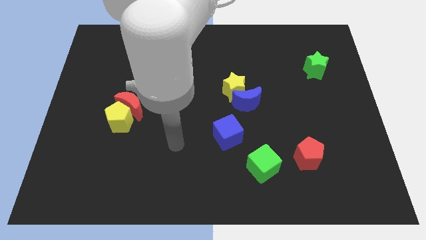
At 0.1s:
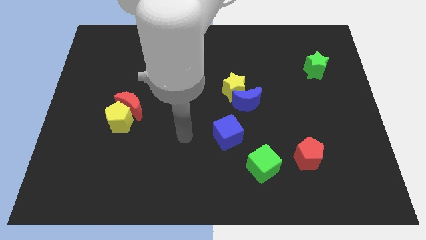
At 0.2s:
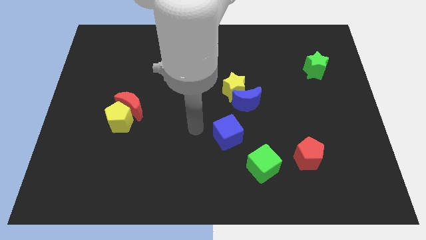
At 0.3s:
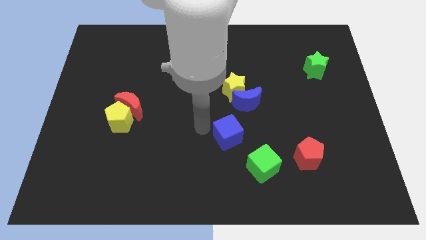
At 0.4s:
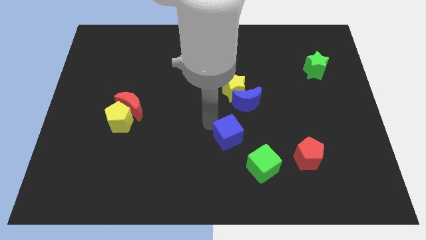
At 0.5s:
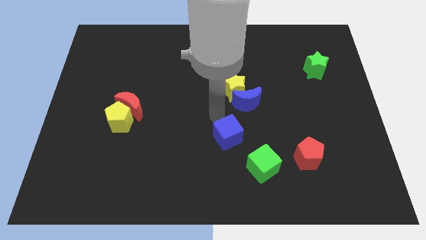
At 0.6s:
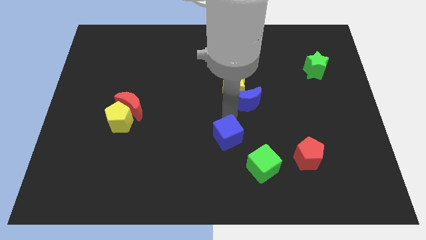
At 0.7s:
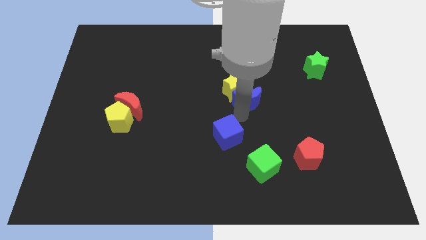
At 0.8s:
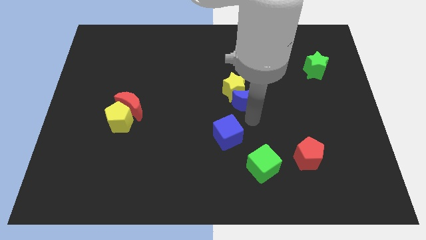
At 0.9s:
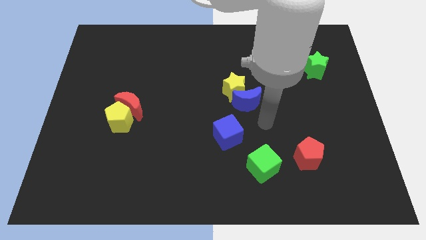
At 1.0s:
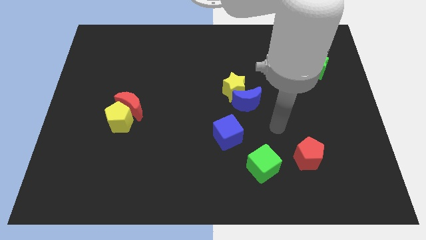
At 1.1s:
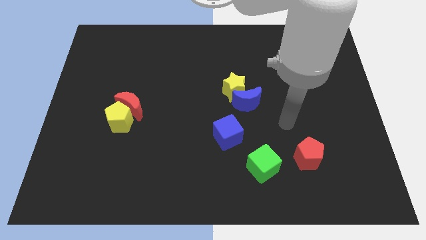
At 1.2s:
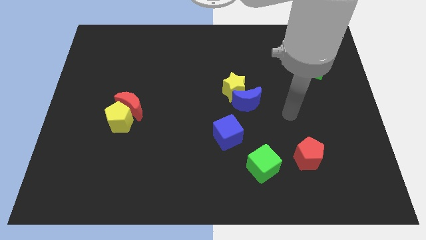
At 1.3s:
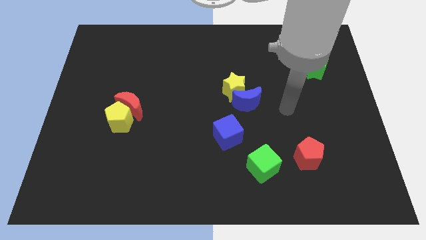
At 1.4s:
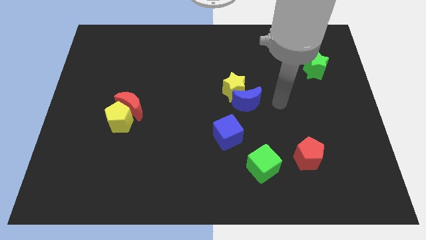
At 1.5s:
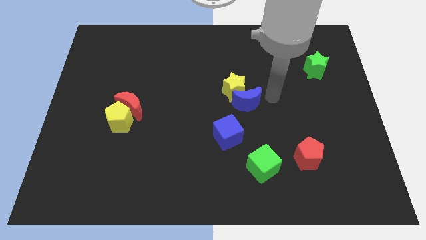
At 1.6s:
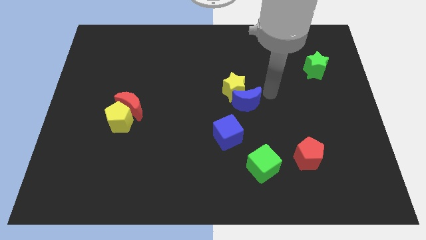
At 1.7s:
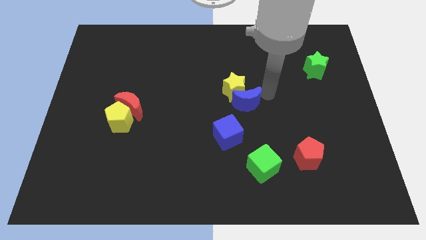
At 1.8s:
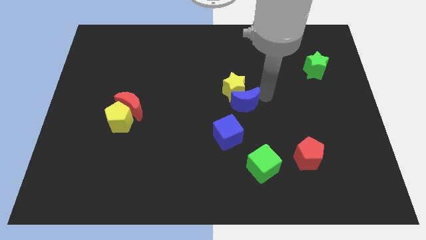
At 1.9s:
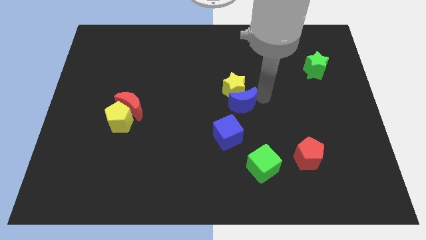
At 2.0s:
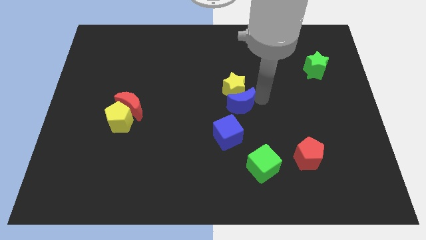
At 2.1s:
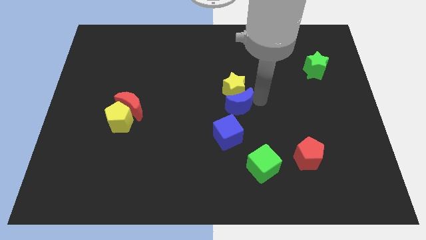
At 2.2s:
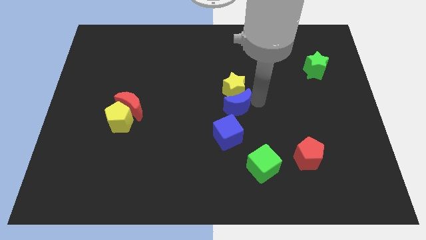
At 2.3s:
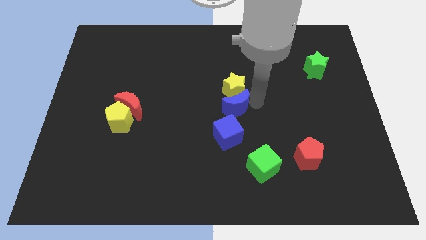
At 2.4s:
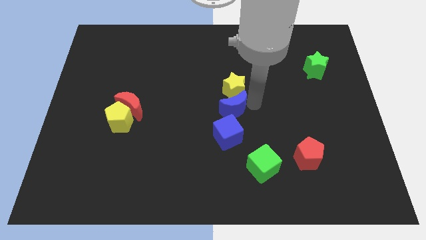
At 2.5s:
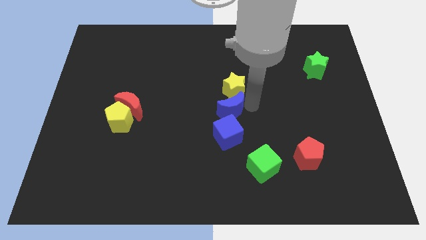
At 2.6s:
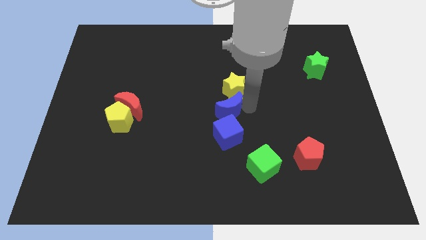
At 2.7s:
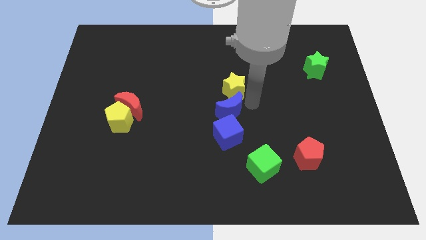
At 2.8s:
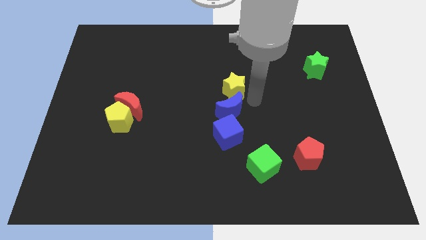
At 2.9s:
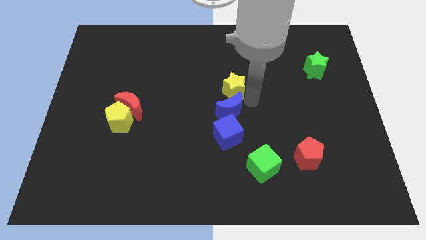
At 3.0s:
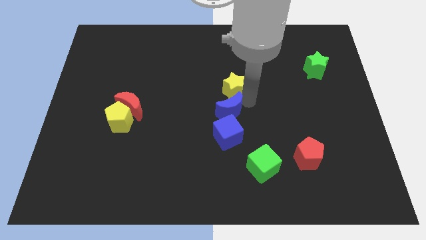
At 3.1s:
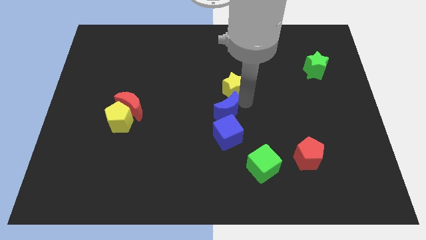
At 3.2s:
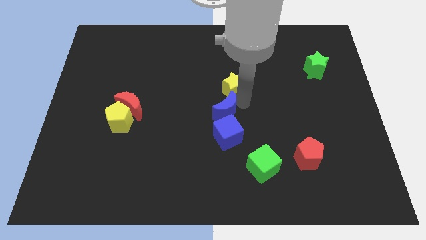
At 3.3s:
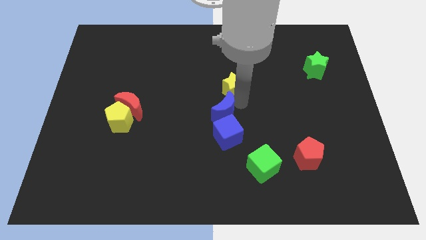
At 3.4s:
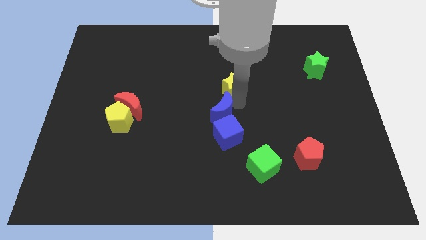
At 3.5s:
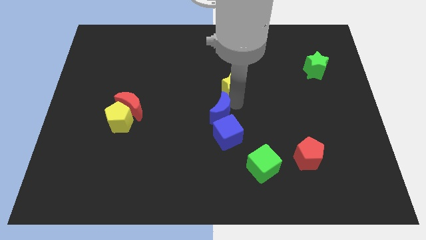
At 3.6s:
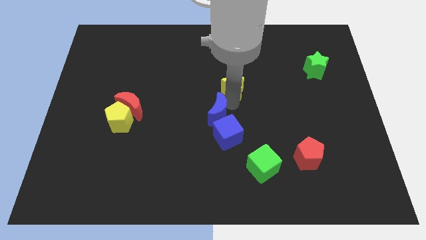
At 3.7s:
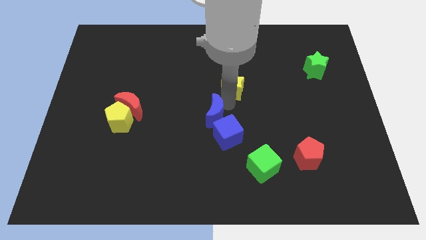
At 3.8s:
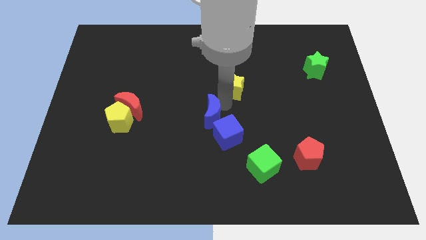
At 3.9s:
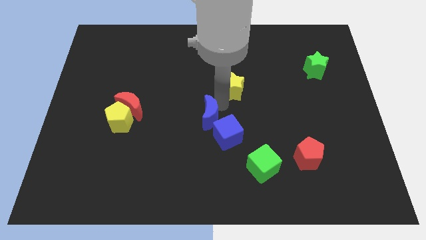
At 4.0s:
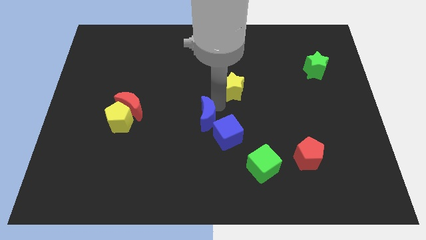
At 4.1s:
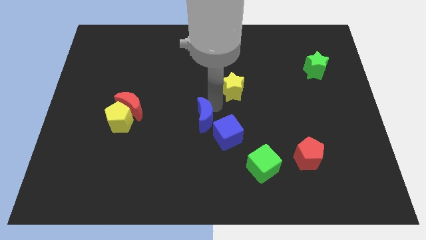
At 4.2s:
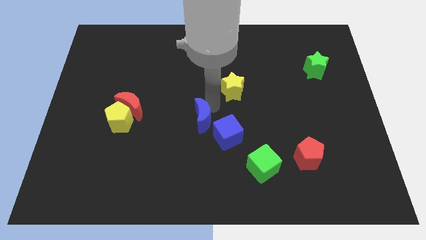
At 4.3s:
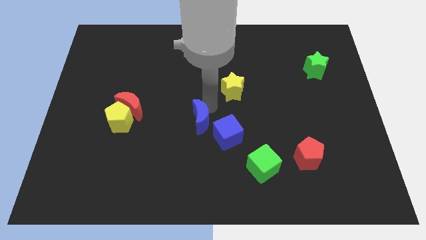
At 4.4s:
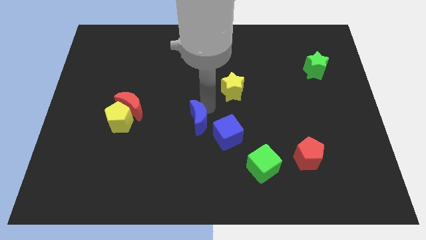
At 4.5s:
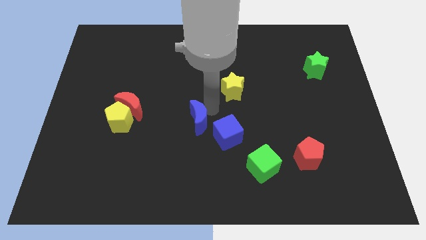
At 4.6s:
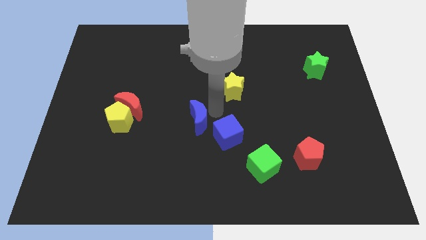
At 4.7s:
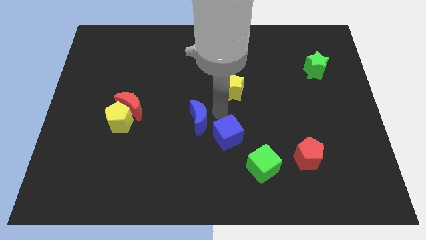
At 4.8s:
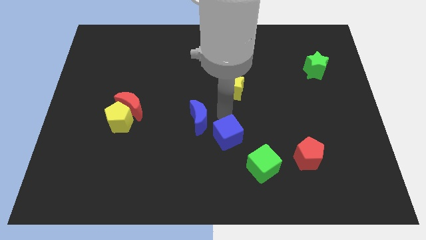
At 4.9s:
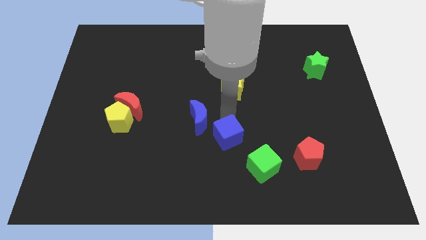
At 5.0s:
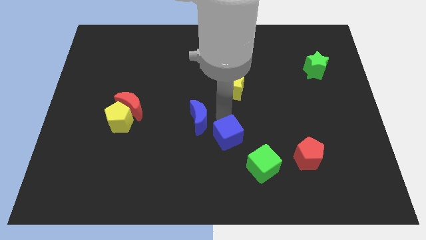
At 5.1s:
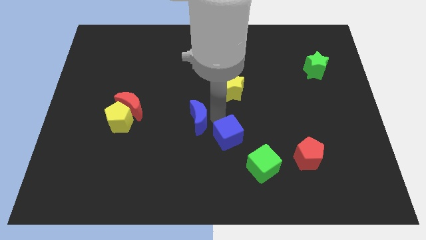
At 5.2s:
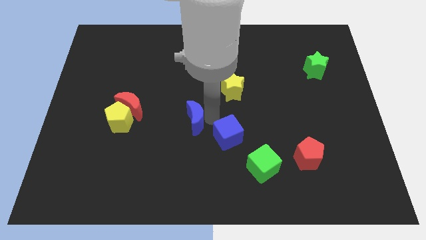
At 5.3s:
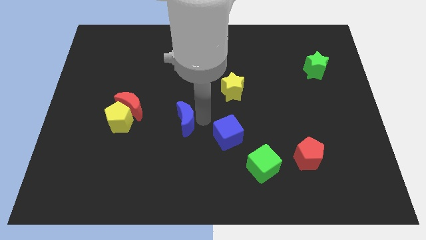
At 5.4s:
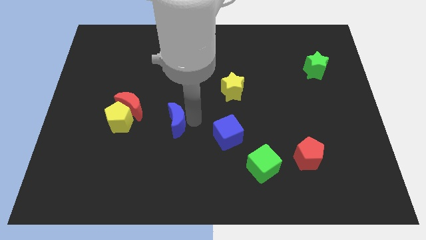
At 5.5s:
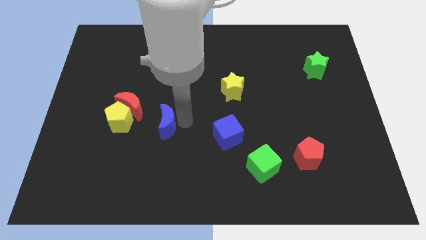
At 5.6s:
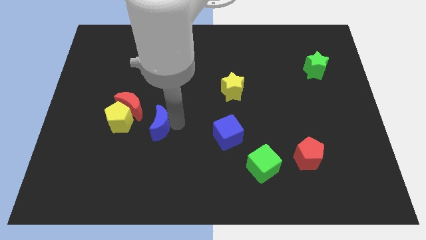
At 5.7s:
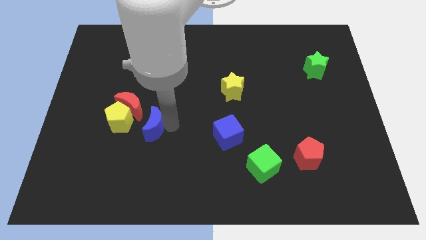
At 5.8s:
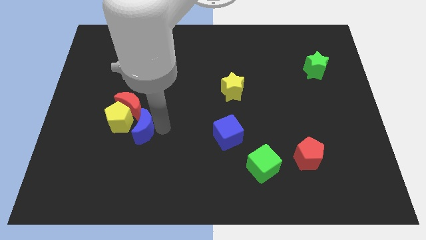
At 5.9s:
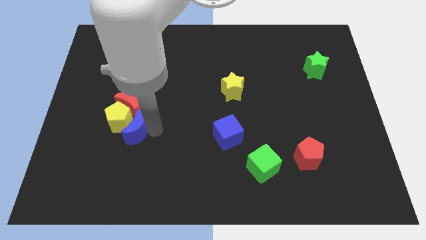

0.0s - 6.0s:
push the blue moon close to the yellow pentagon

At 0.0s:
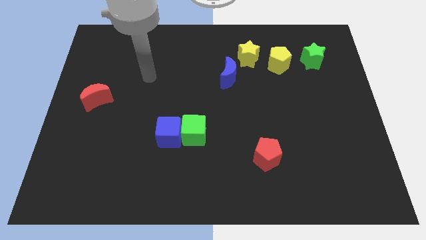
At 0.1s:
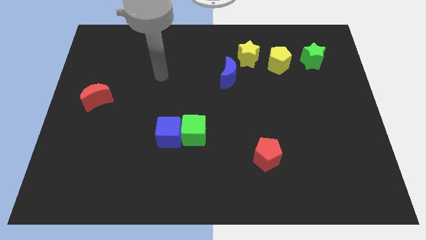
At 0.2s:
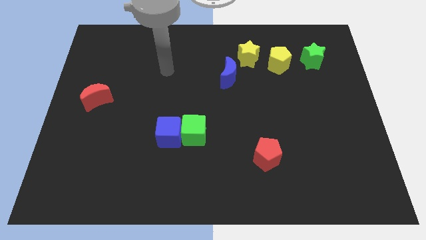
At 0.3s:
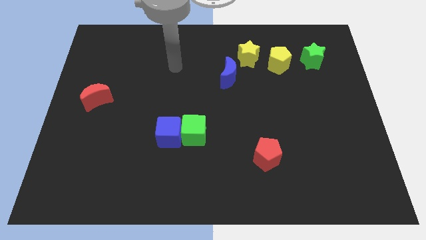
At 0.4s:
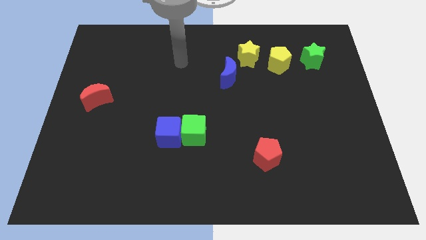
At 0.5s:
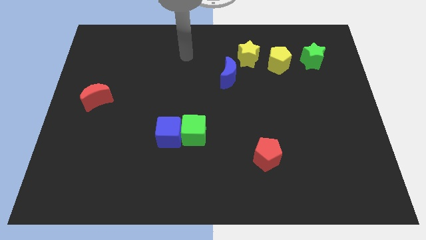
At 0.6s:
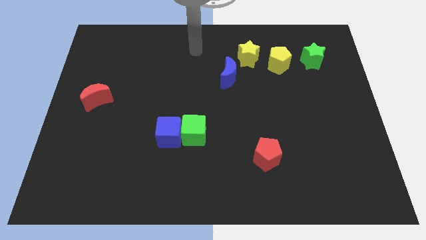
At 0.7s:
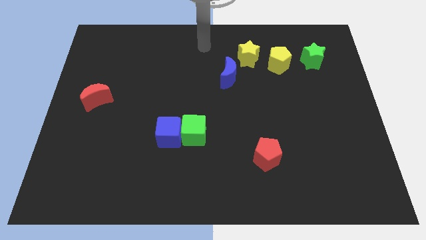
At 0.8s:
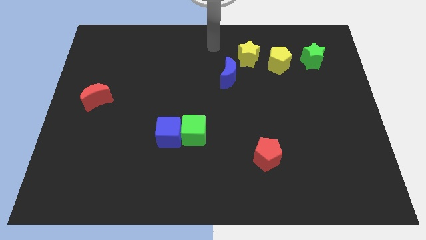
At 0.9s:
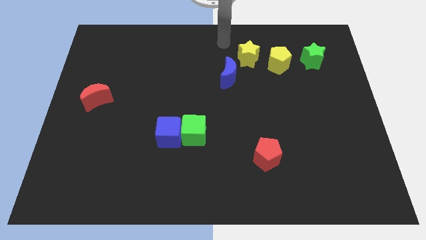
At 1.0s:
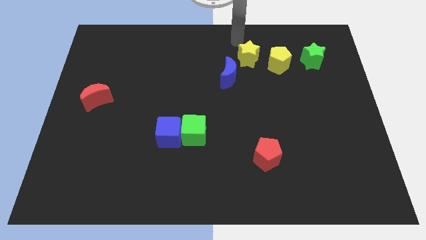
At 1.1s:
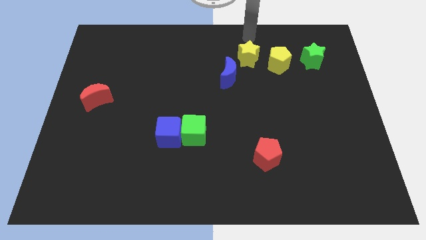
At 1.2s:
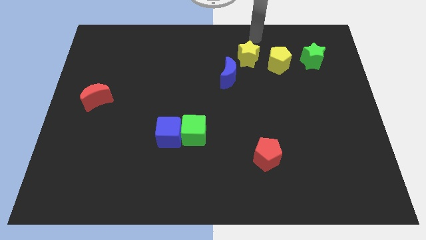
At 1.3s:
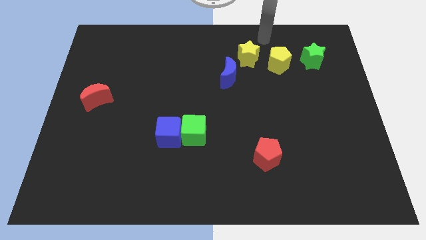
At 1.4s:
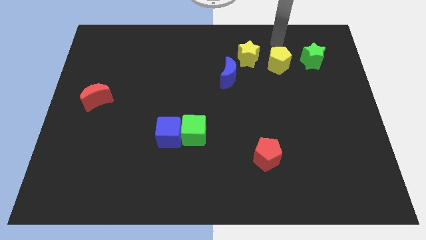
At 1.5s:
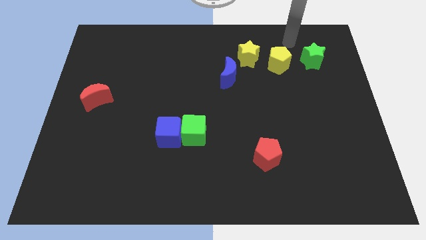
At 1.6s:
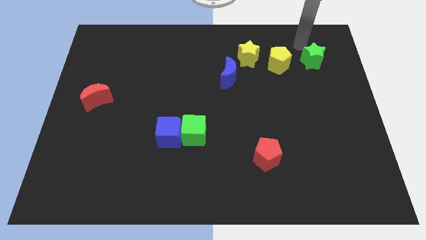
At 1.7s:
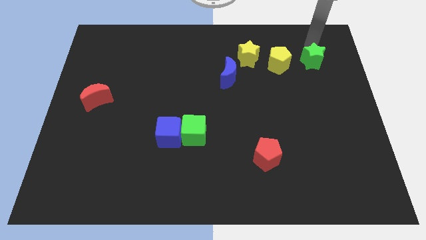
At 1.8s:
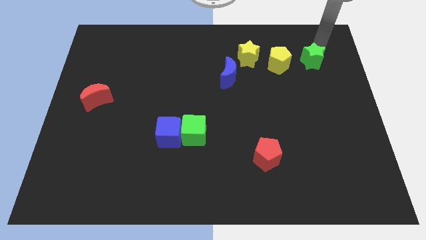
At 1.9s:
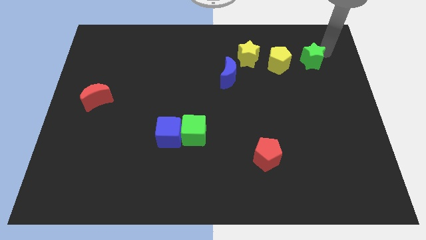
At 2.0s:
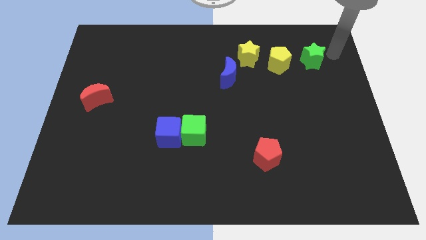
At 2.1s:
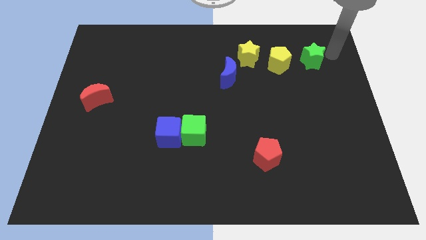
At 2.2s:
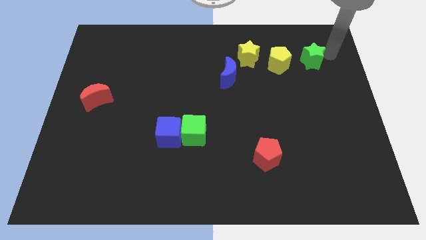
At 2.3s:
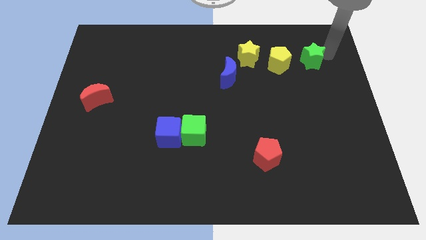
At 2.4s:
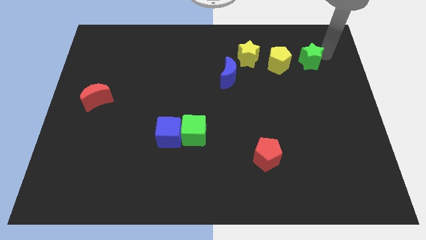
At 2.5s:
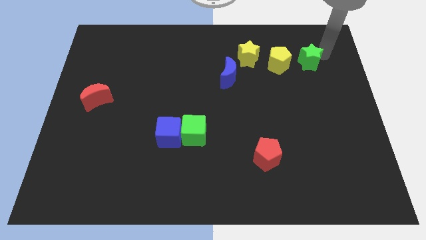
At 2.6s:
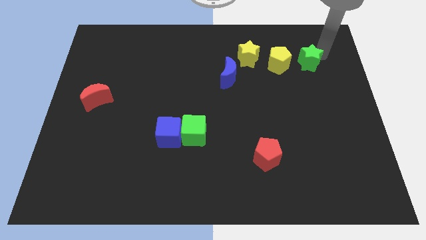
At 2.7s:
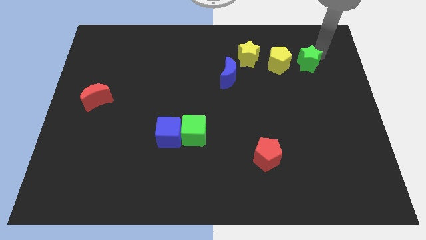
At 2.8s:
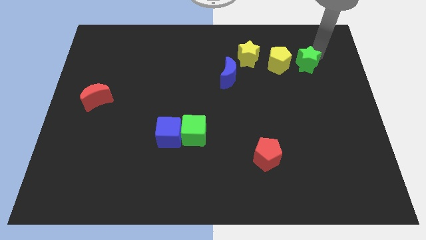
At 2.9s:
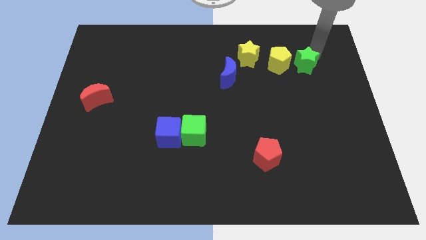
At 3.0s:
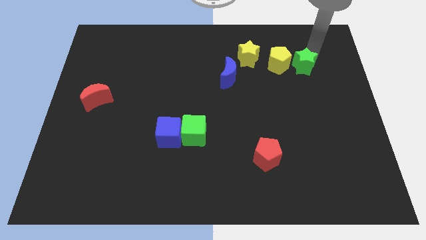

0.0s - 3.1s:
push the green star towards the yellow pentagon
